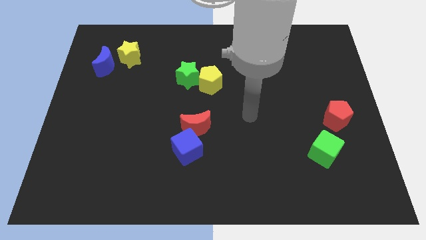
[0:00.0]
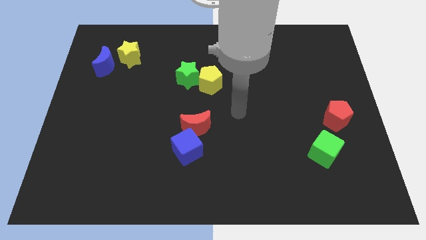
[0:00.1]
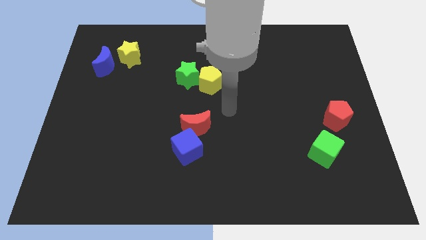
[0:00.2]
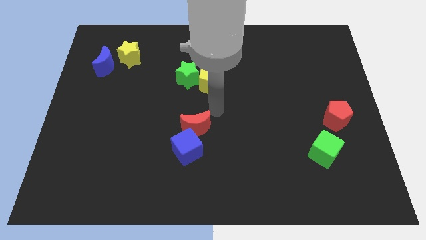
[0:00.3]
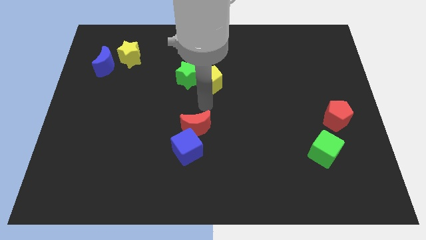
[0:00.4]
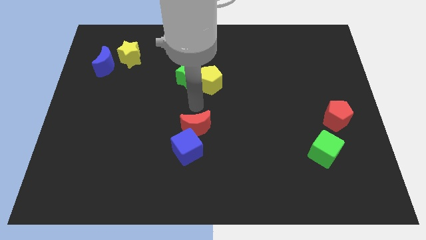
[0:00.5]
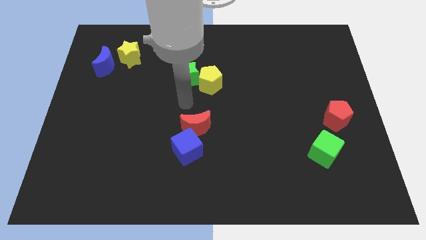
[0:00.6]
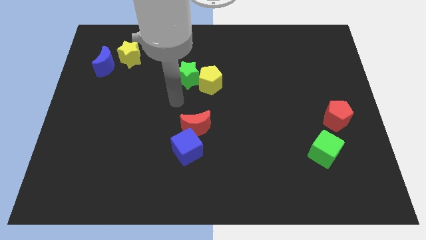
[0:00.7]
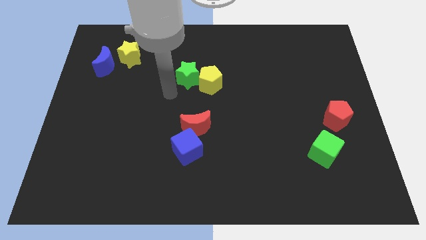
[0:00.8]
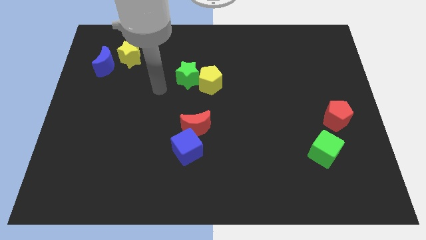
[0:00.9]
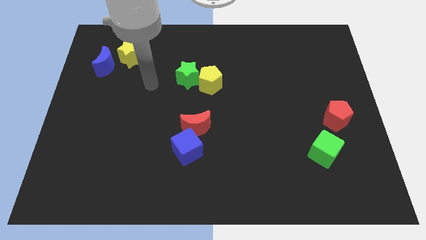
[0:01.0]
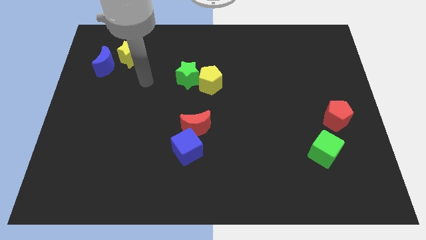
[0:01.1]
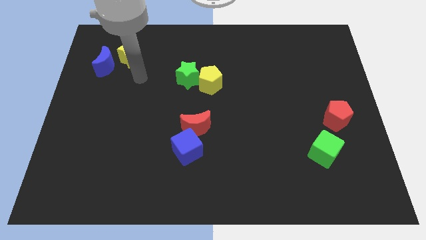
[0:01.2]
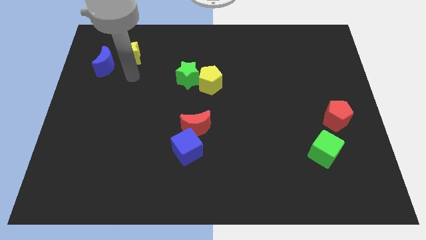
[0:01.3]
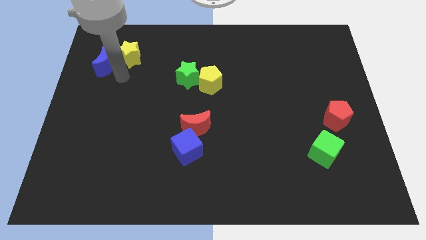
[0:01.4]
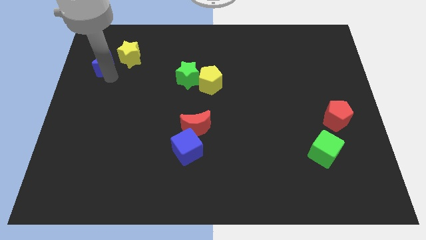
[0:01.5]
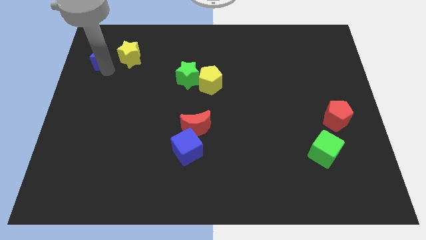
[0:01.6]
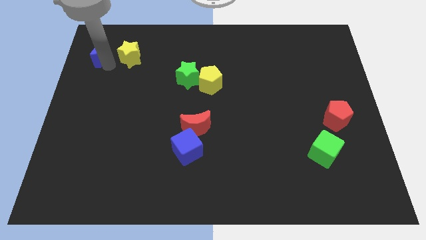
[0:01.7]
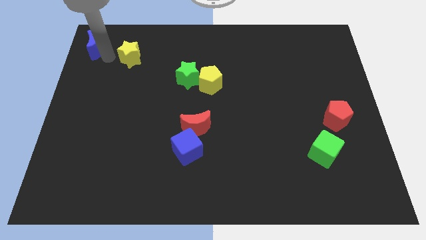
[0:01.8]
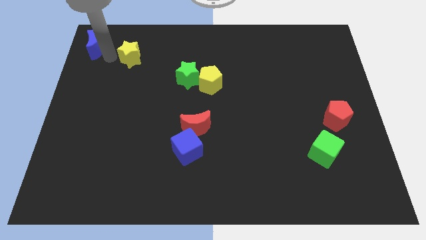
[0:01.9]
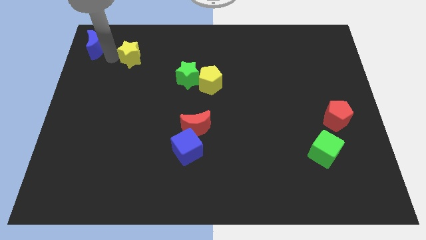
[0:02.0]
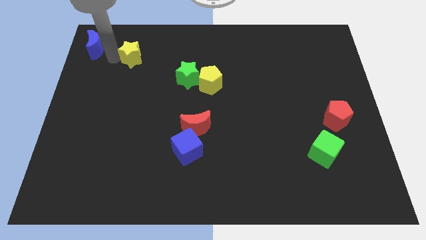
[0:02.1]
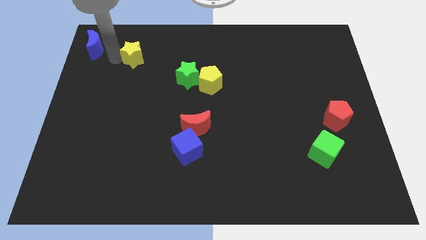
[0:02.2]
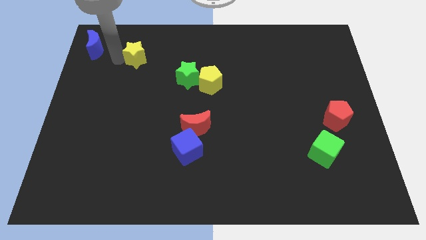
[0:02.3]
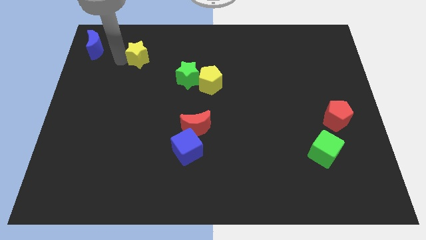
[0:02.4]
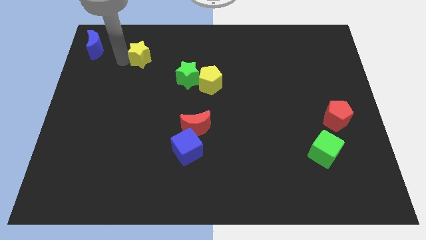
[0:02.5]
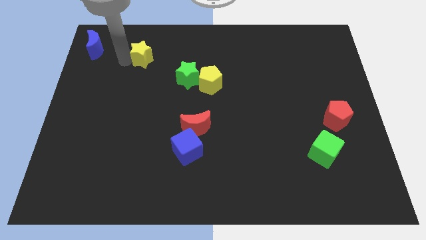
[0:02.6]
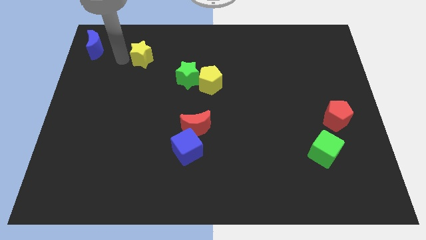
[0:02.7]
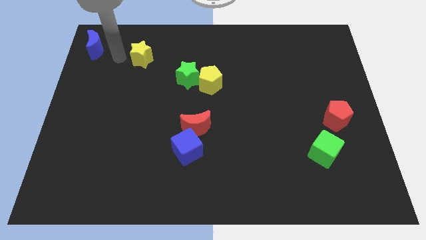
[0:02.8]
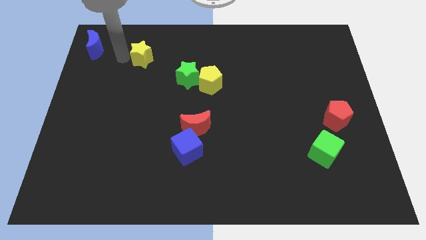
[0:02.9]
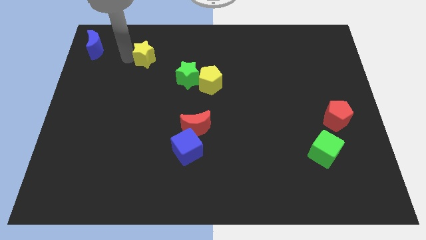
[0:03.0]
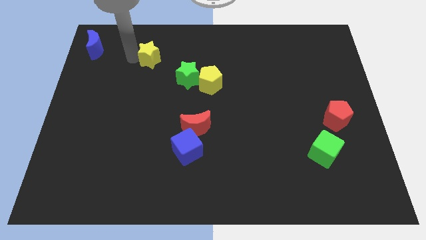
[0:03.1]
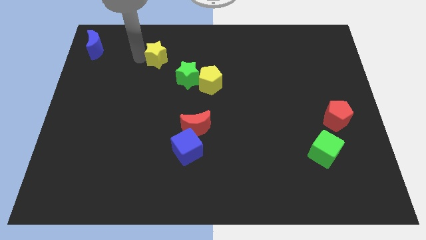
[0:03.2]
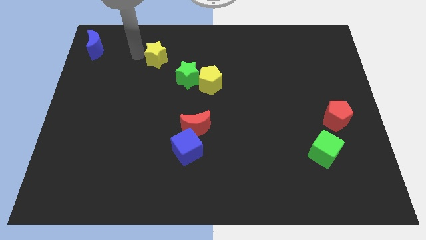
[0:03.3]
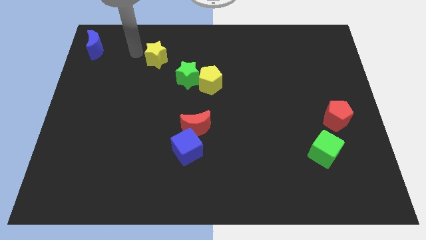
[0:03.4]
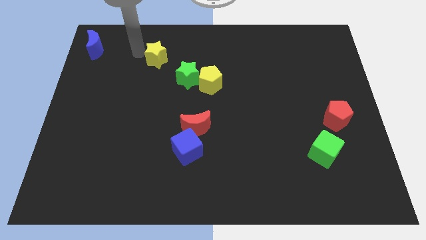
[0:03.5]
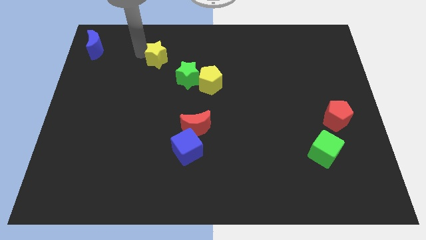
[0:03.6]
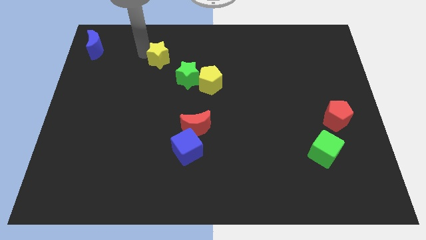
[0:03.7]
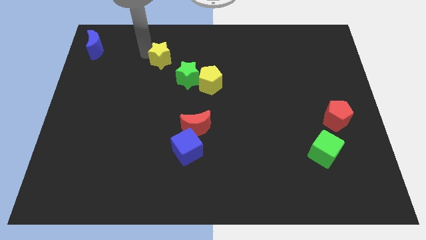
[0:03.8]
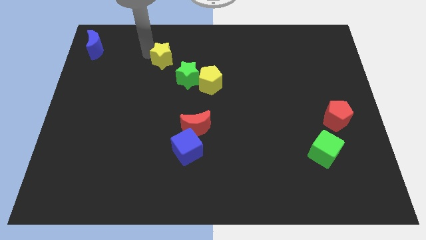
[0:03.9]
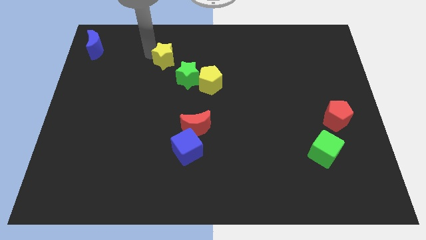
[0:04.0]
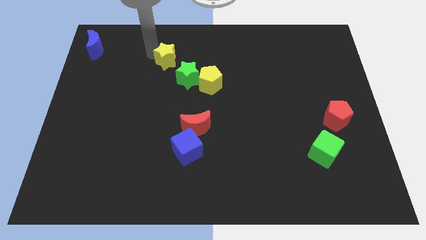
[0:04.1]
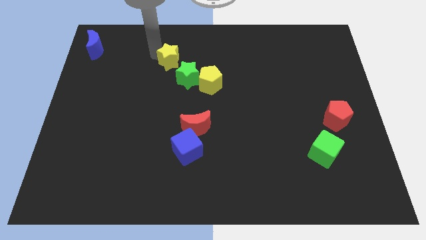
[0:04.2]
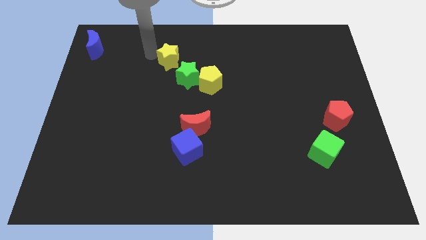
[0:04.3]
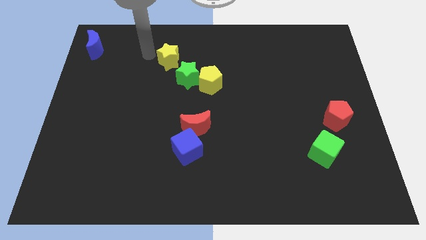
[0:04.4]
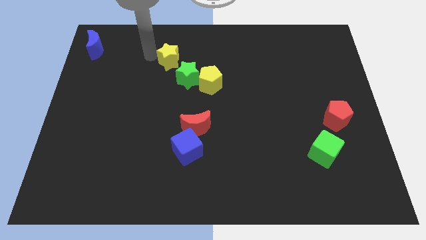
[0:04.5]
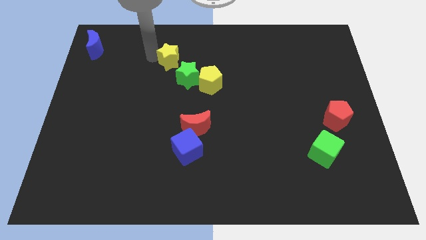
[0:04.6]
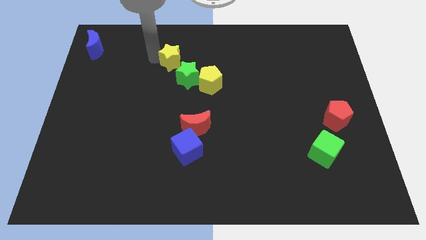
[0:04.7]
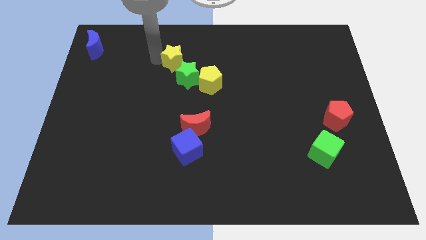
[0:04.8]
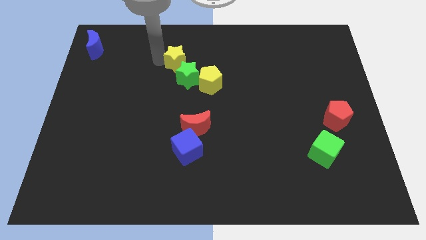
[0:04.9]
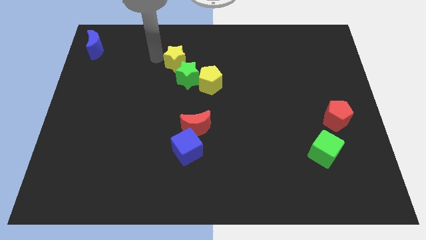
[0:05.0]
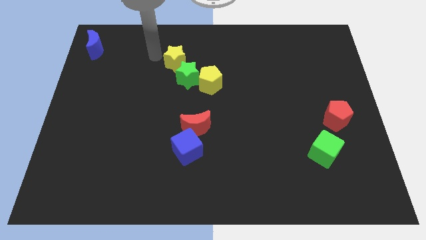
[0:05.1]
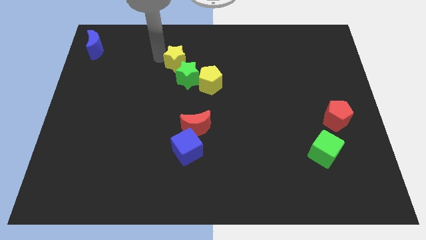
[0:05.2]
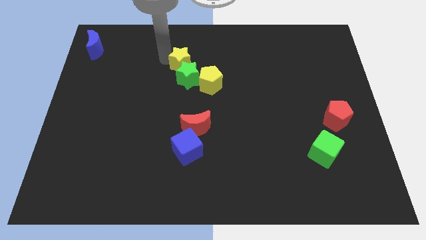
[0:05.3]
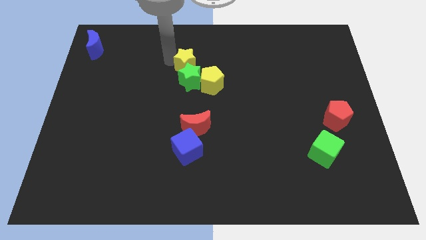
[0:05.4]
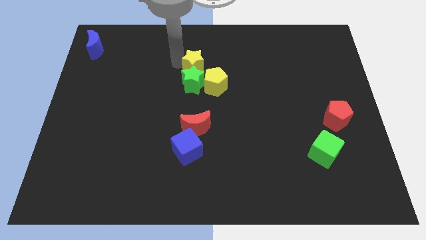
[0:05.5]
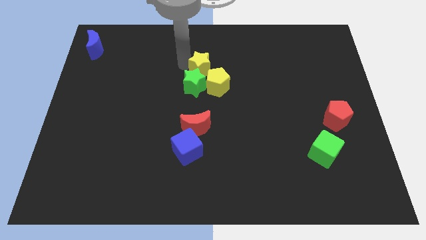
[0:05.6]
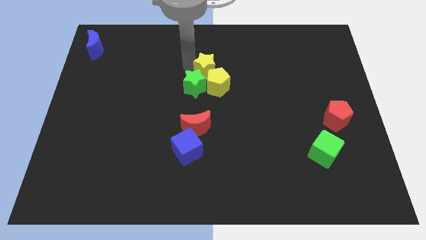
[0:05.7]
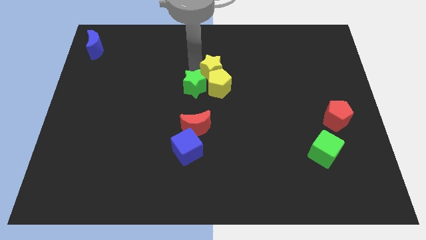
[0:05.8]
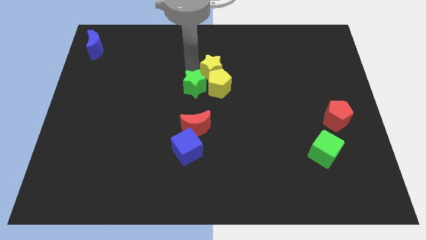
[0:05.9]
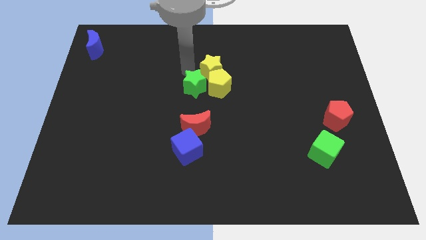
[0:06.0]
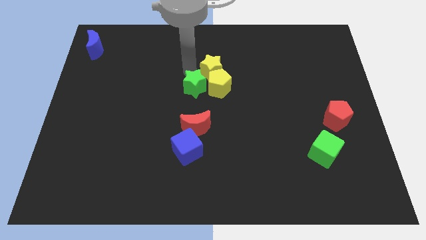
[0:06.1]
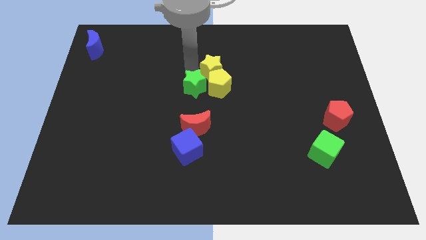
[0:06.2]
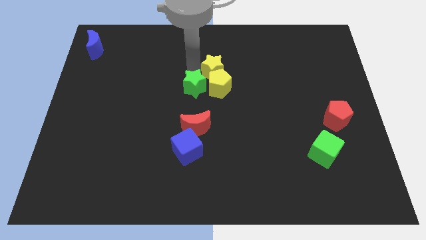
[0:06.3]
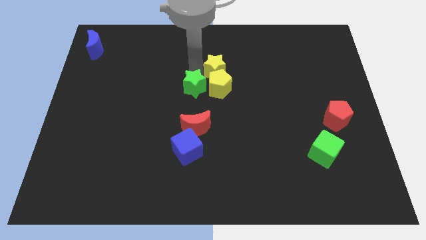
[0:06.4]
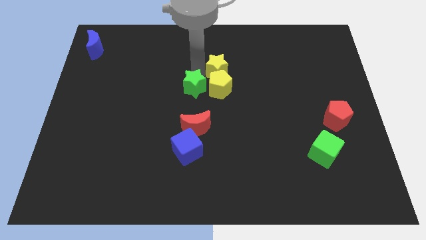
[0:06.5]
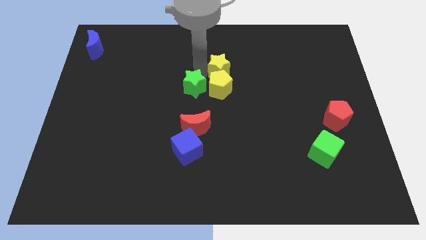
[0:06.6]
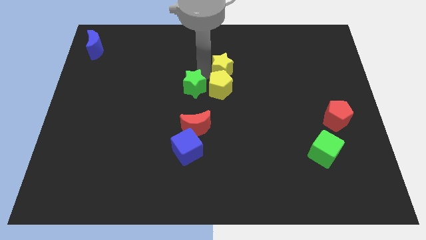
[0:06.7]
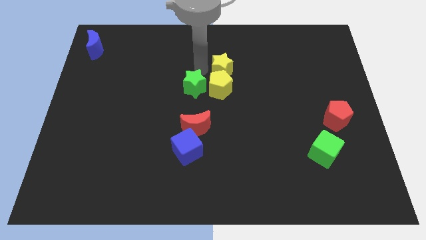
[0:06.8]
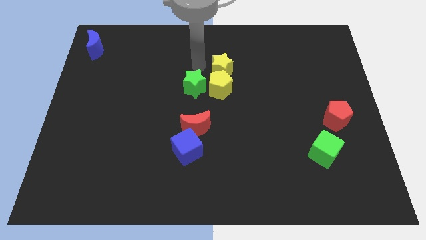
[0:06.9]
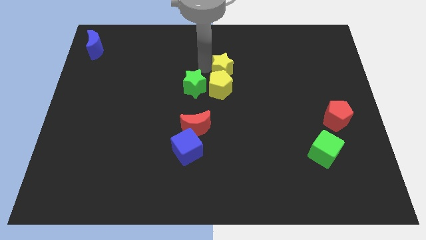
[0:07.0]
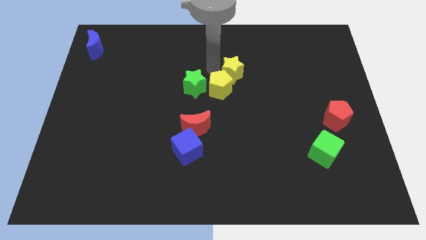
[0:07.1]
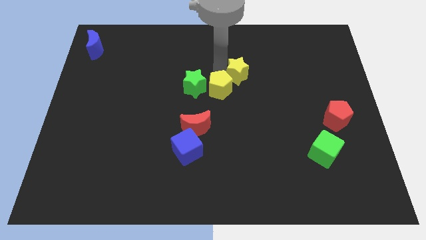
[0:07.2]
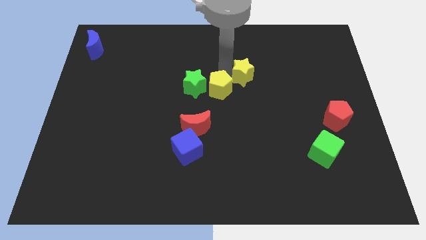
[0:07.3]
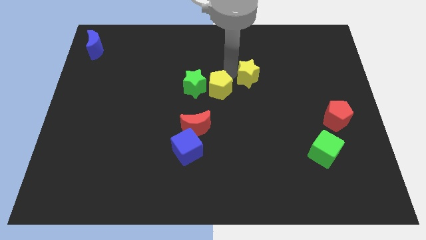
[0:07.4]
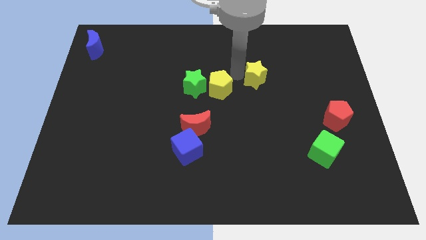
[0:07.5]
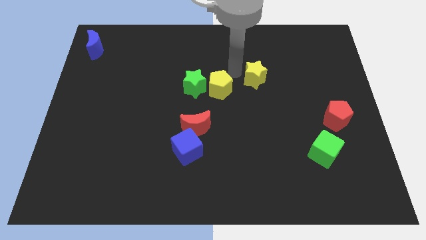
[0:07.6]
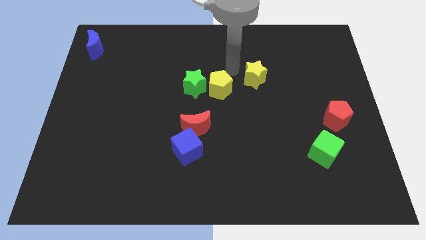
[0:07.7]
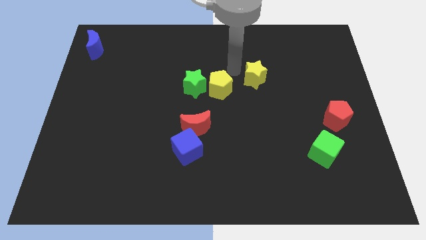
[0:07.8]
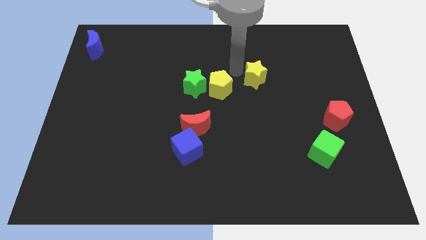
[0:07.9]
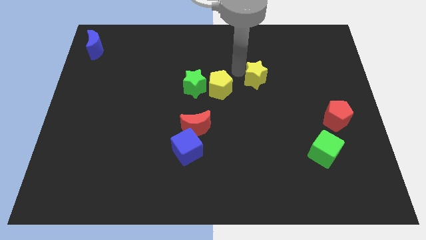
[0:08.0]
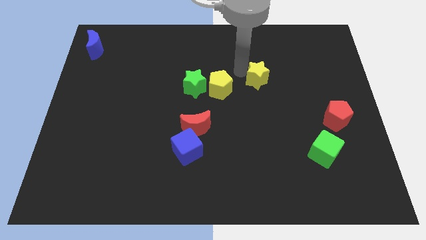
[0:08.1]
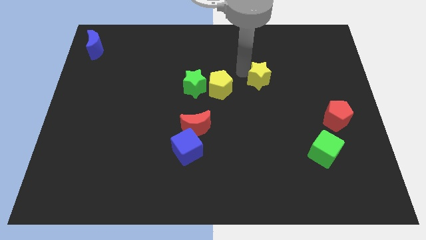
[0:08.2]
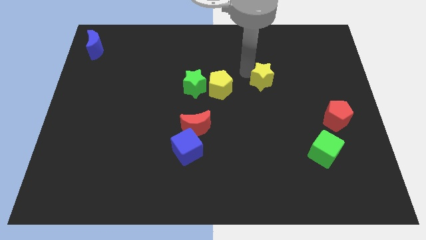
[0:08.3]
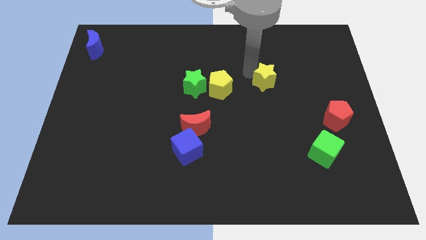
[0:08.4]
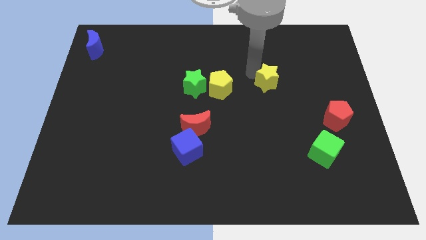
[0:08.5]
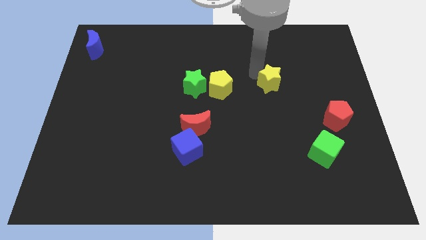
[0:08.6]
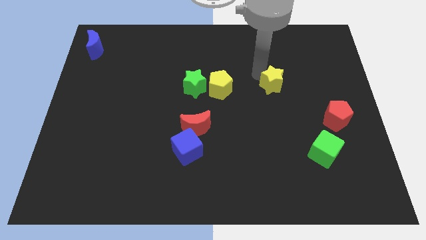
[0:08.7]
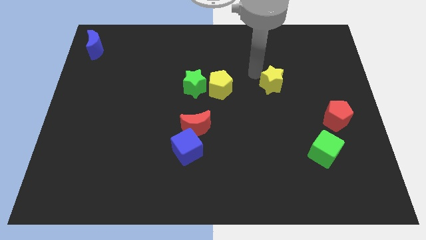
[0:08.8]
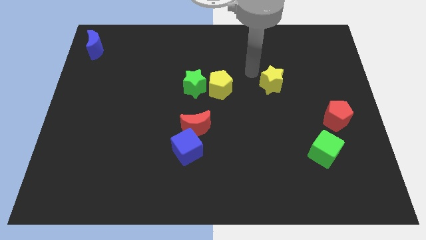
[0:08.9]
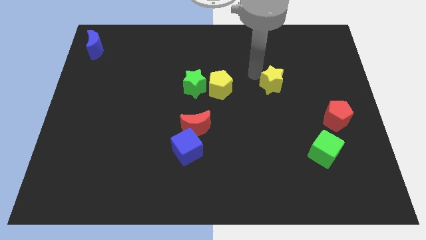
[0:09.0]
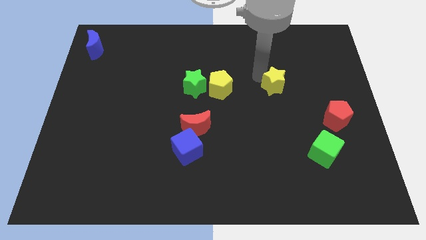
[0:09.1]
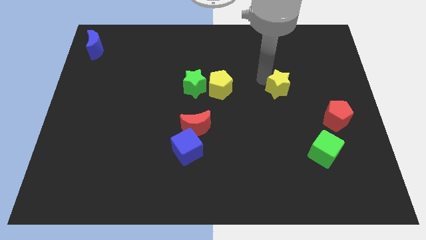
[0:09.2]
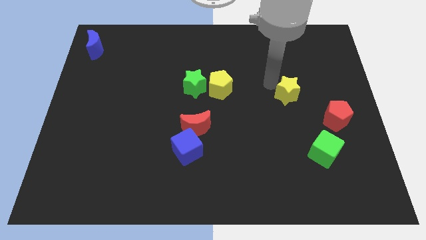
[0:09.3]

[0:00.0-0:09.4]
slide the yellow star to the top left side of the red pentagon
